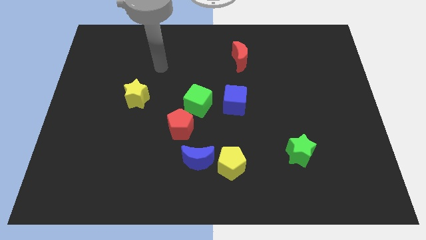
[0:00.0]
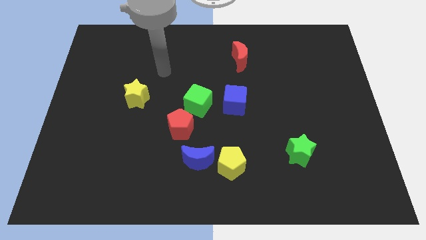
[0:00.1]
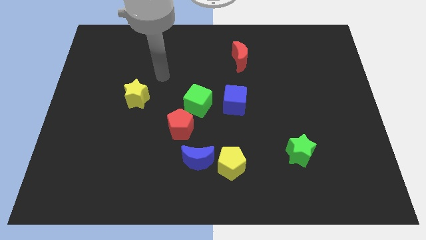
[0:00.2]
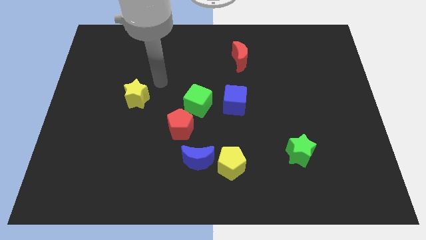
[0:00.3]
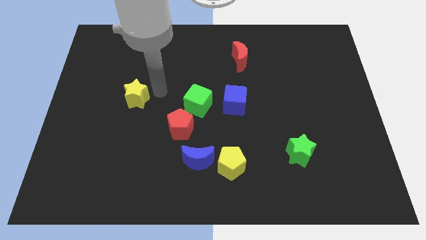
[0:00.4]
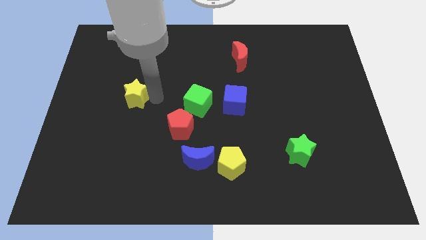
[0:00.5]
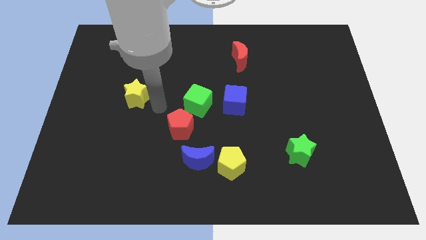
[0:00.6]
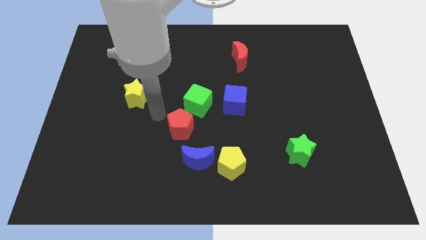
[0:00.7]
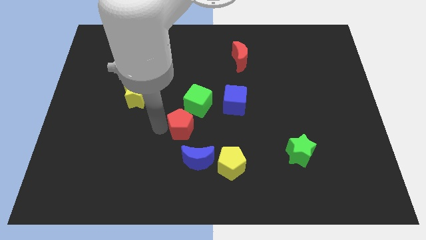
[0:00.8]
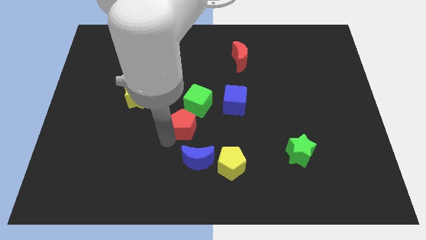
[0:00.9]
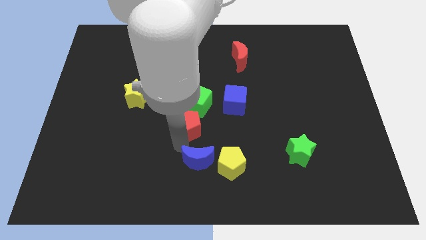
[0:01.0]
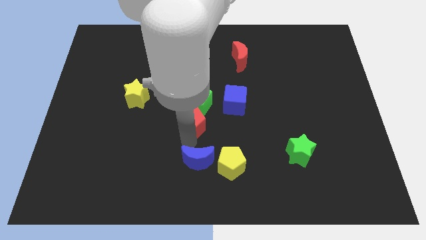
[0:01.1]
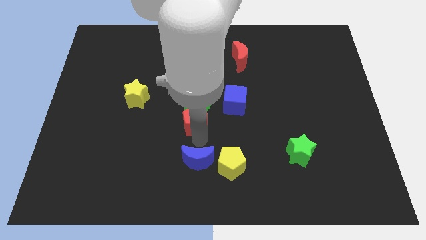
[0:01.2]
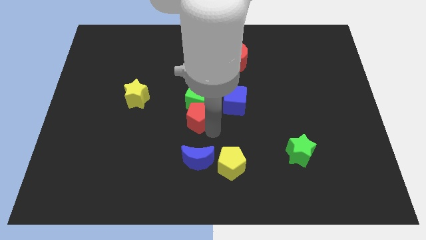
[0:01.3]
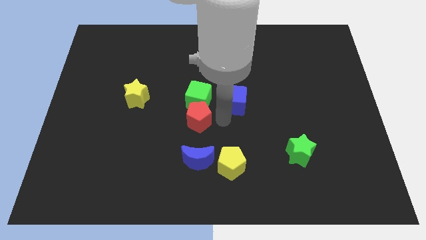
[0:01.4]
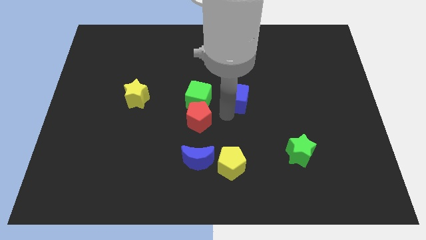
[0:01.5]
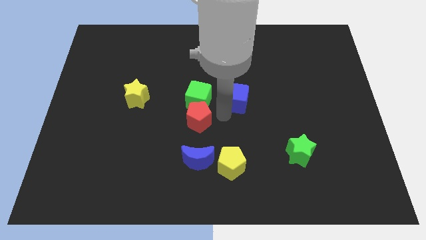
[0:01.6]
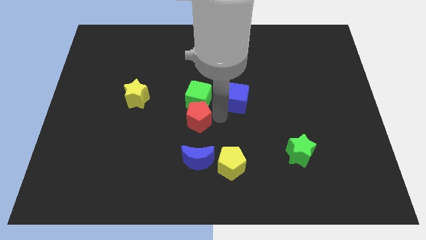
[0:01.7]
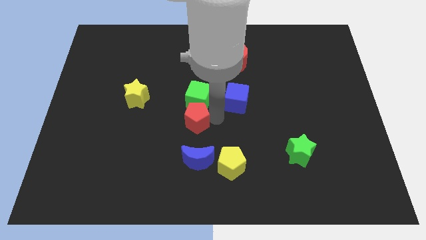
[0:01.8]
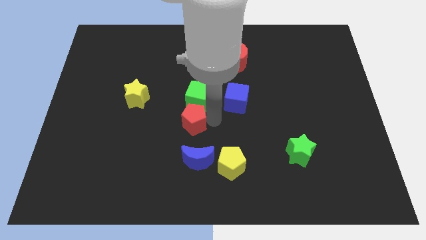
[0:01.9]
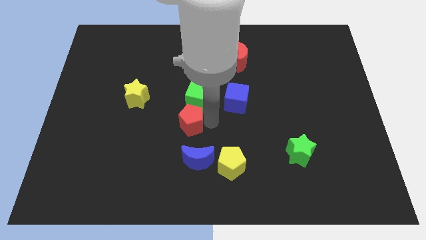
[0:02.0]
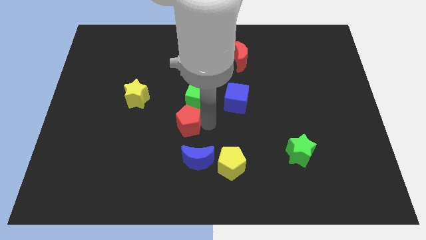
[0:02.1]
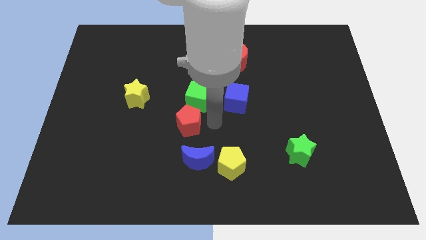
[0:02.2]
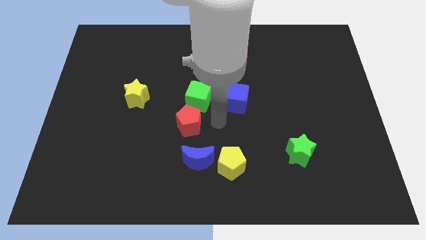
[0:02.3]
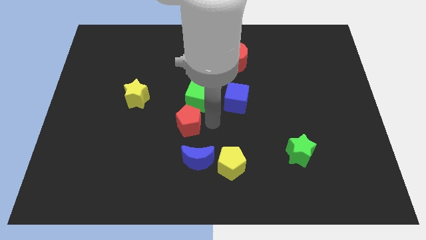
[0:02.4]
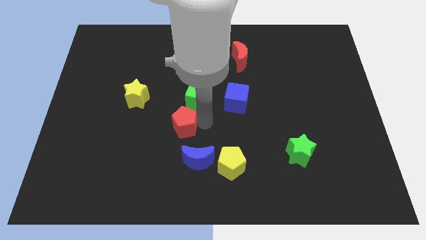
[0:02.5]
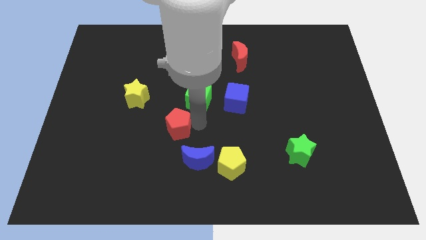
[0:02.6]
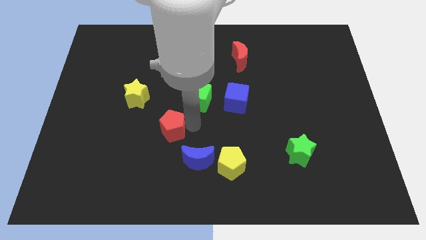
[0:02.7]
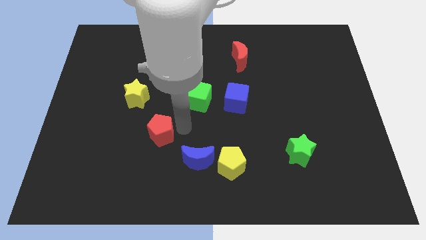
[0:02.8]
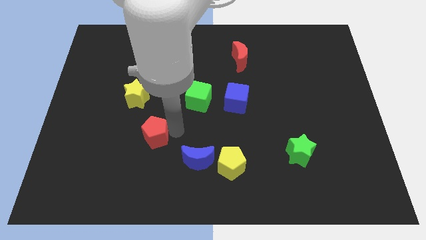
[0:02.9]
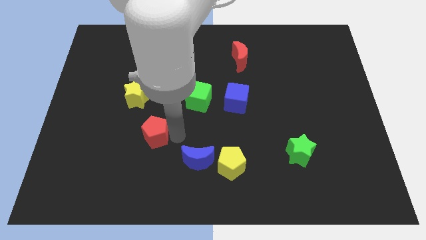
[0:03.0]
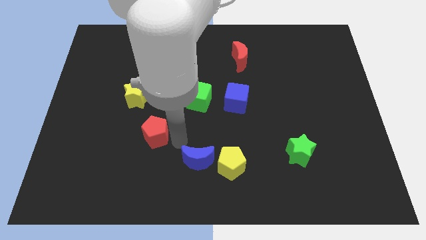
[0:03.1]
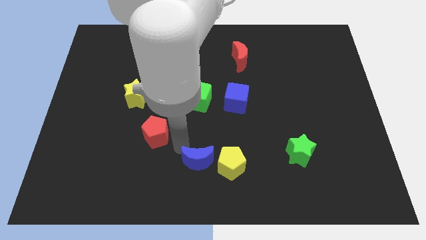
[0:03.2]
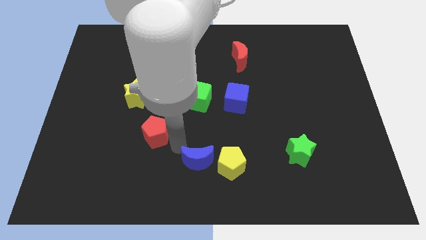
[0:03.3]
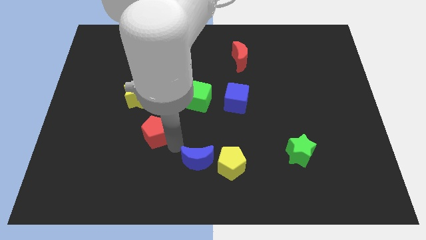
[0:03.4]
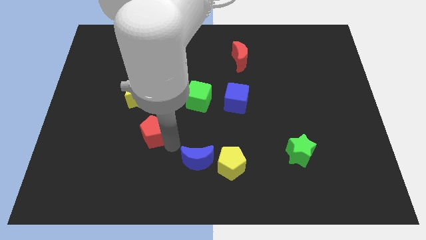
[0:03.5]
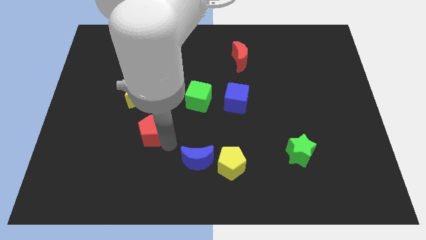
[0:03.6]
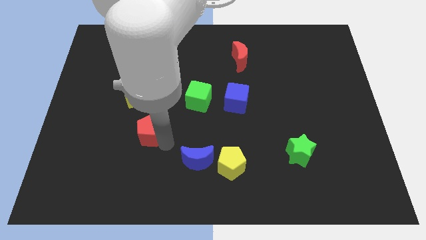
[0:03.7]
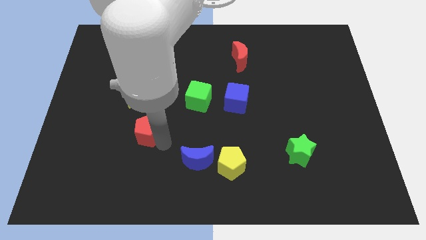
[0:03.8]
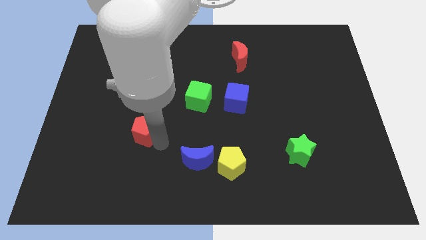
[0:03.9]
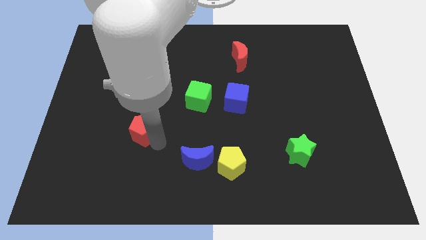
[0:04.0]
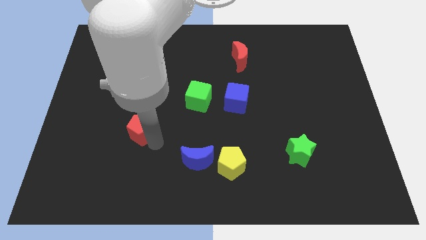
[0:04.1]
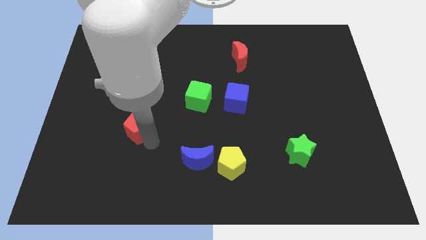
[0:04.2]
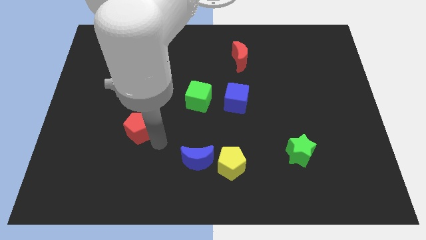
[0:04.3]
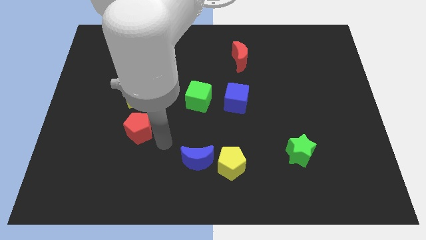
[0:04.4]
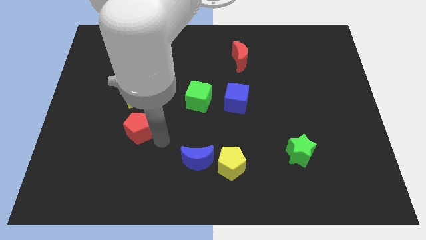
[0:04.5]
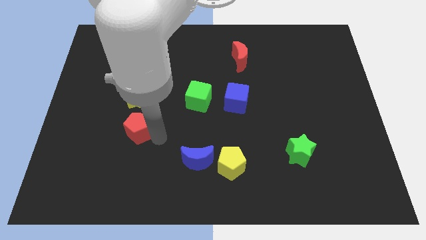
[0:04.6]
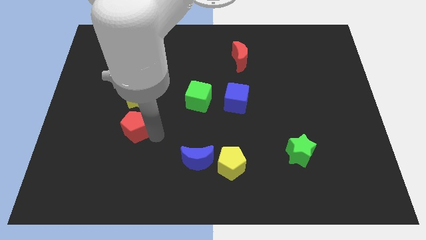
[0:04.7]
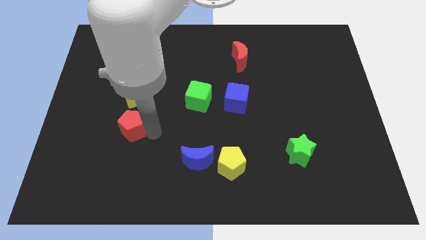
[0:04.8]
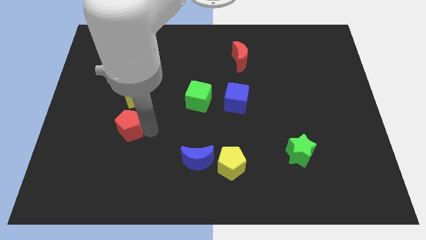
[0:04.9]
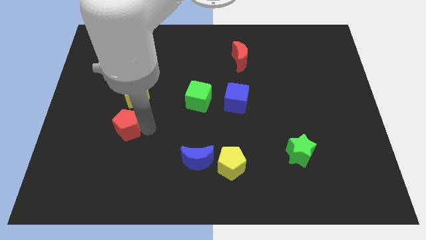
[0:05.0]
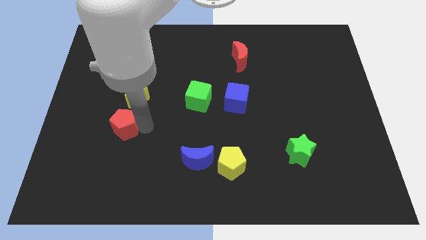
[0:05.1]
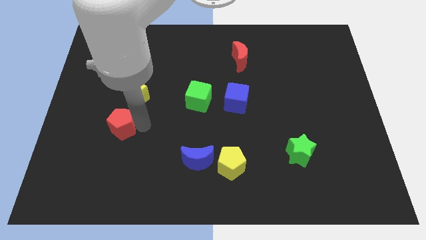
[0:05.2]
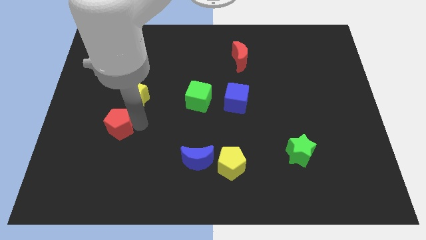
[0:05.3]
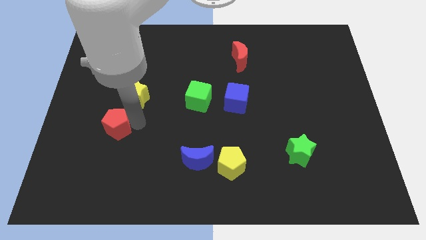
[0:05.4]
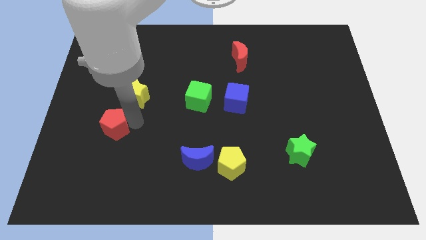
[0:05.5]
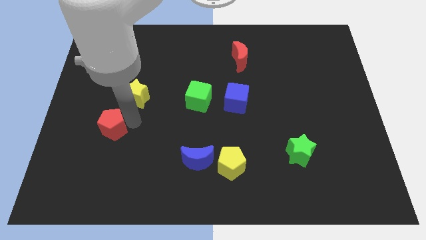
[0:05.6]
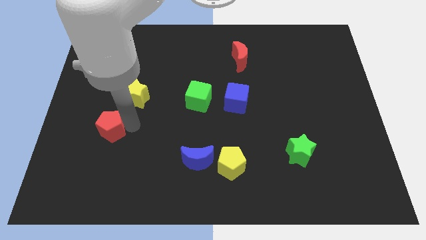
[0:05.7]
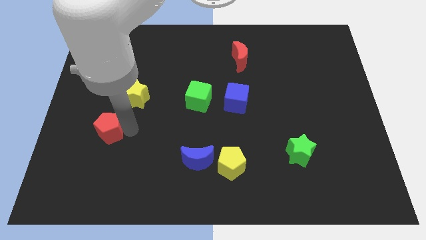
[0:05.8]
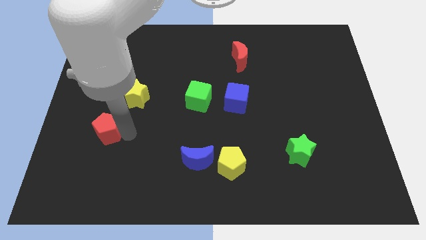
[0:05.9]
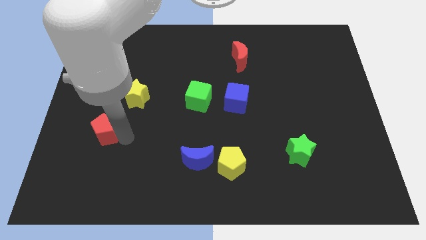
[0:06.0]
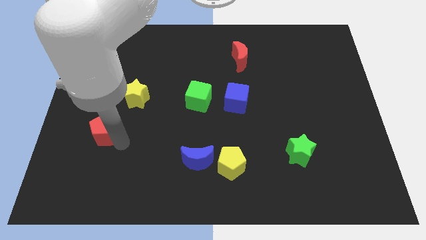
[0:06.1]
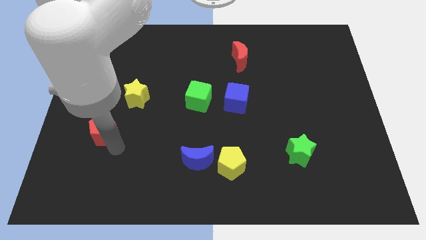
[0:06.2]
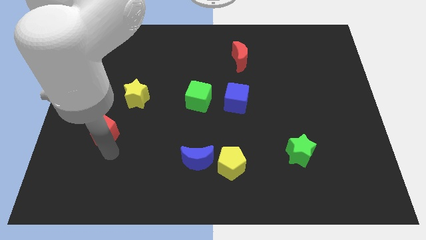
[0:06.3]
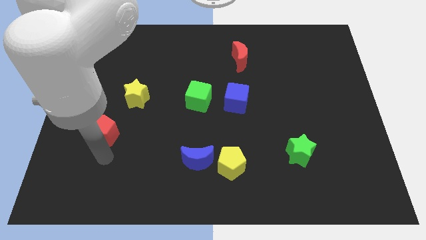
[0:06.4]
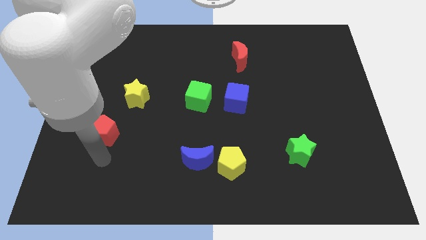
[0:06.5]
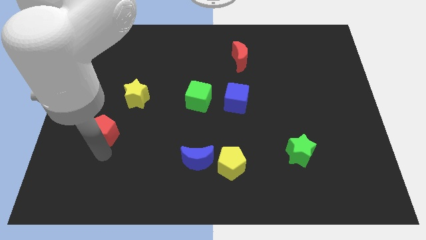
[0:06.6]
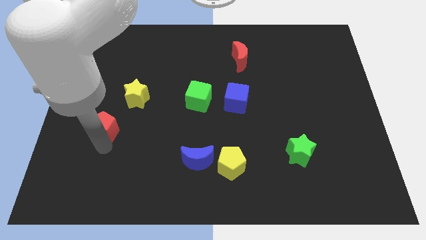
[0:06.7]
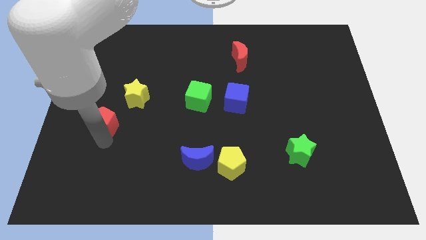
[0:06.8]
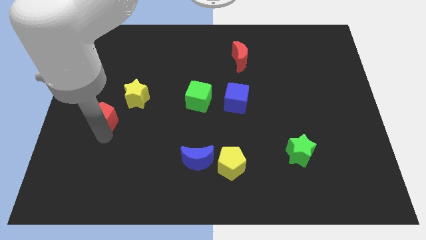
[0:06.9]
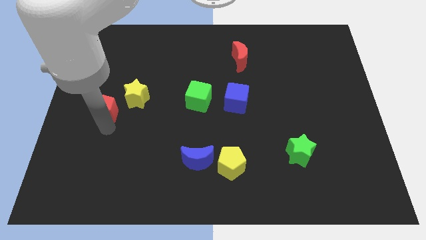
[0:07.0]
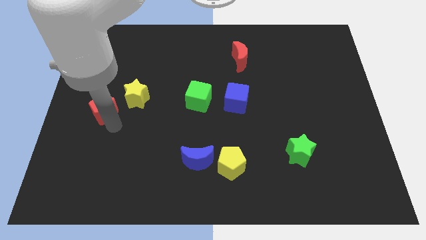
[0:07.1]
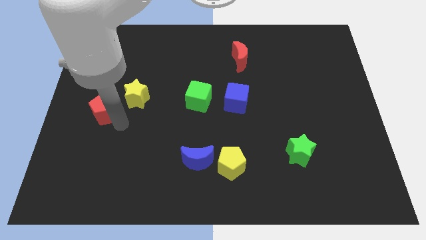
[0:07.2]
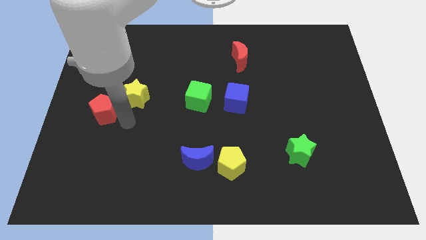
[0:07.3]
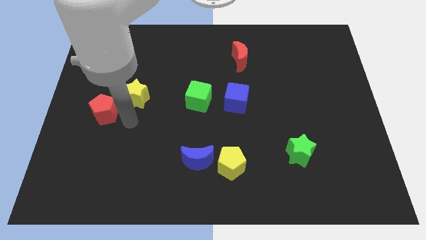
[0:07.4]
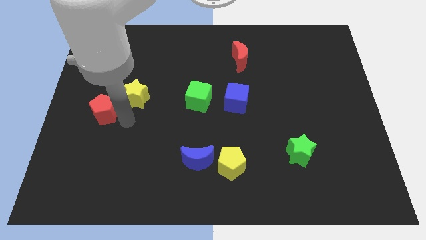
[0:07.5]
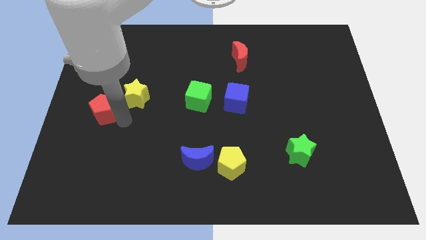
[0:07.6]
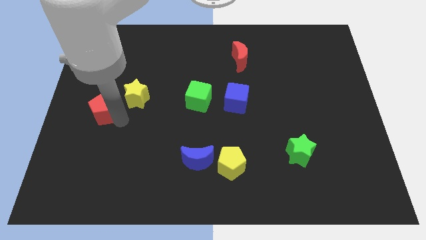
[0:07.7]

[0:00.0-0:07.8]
put the red pentagon to the left side of the board
